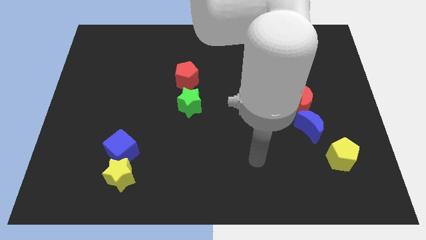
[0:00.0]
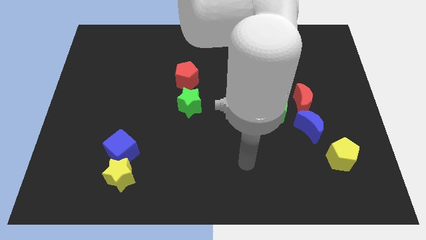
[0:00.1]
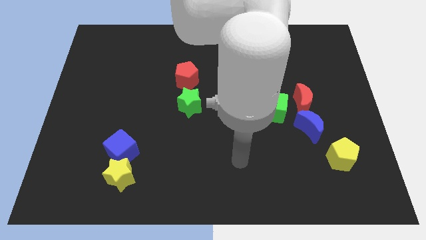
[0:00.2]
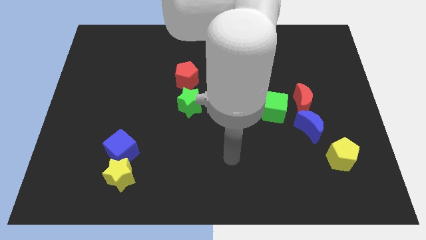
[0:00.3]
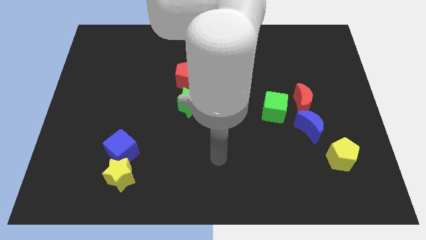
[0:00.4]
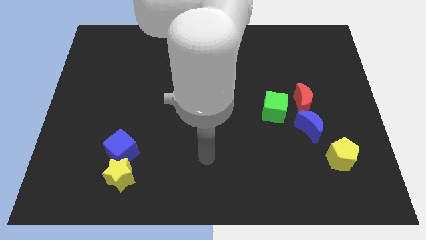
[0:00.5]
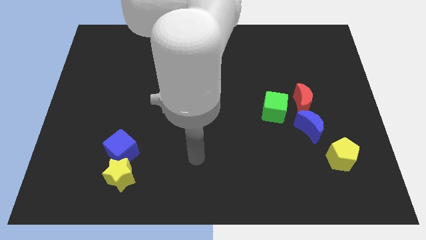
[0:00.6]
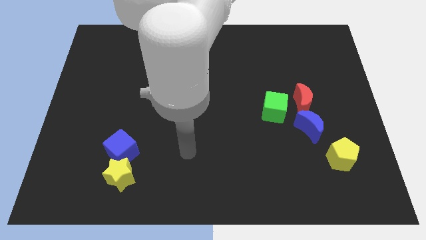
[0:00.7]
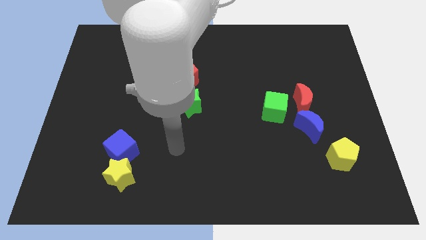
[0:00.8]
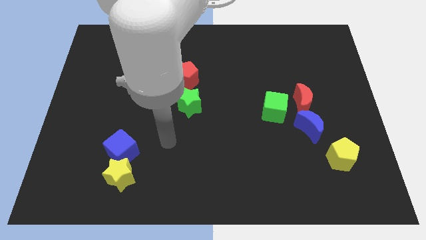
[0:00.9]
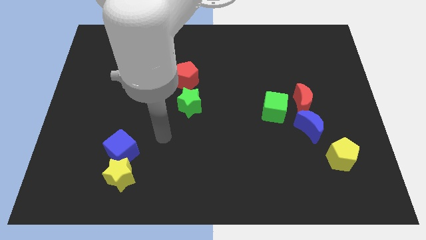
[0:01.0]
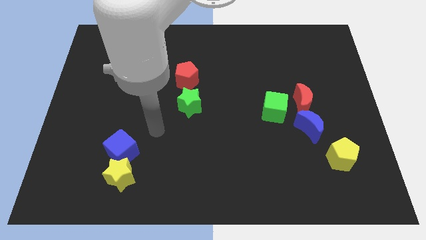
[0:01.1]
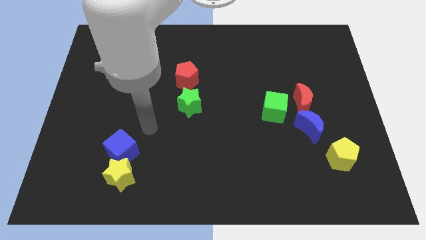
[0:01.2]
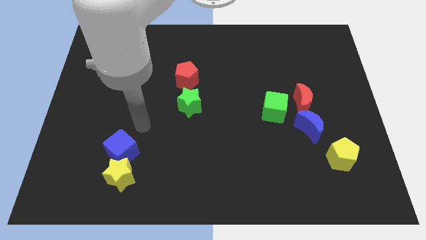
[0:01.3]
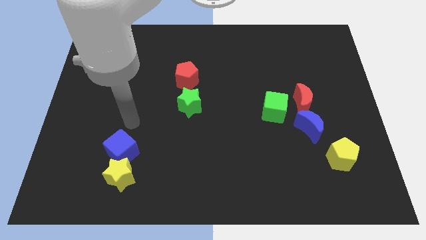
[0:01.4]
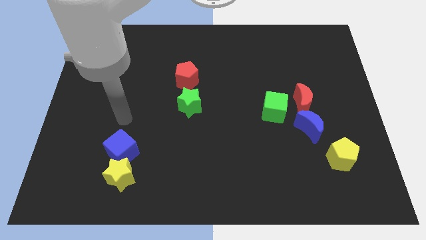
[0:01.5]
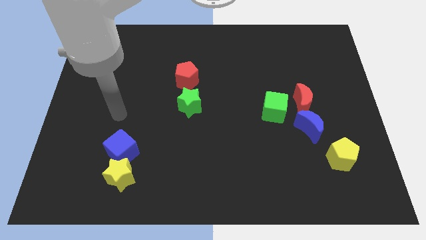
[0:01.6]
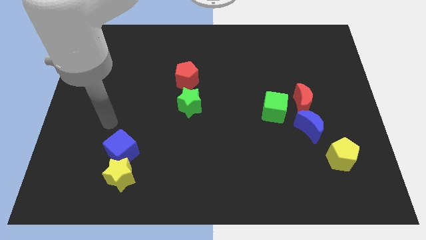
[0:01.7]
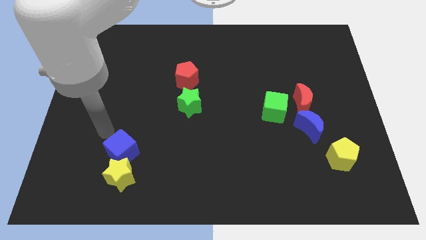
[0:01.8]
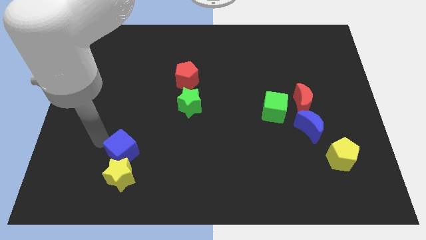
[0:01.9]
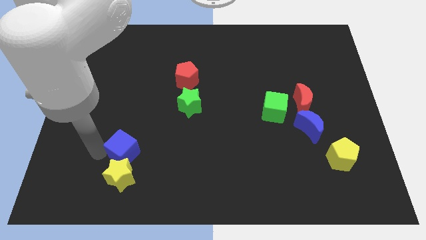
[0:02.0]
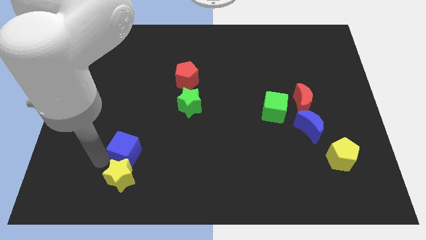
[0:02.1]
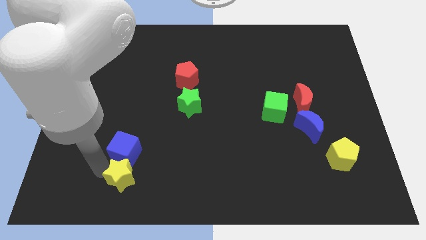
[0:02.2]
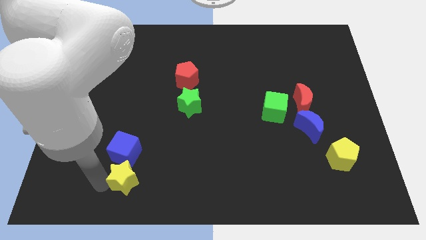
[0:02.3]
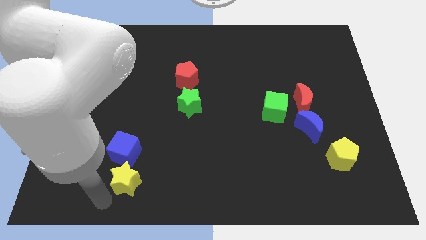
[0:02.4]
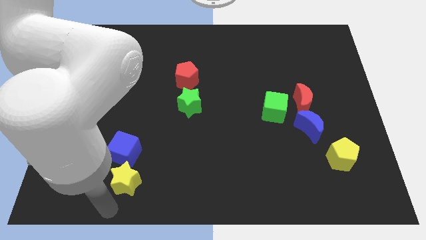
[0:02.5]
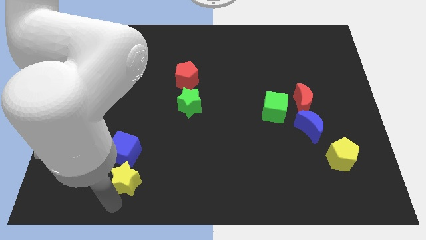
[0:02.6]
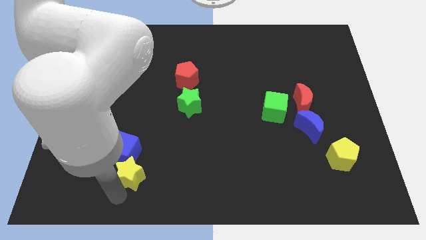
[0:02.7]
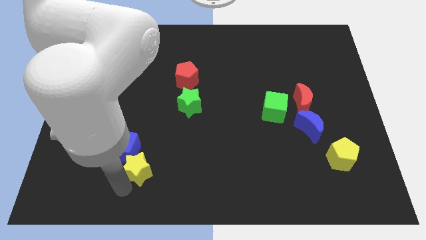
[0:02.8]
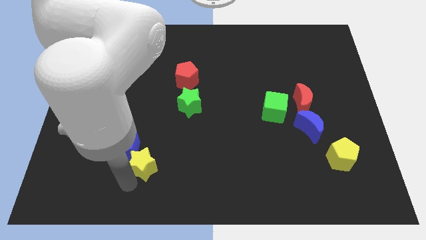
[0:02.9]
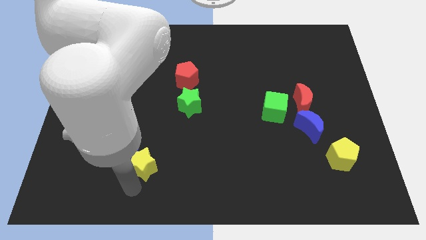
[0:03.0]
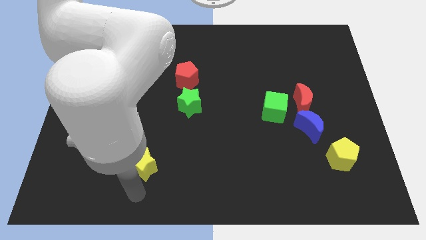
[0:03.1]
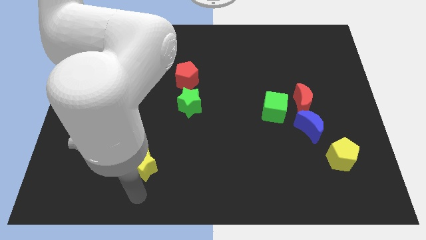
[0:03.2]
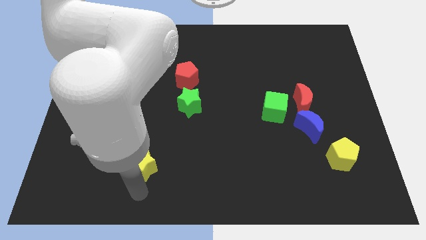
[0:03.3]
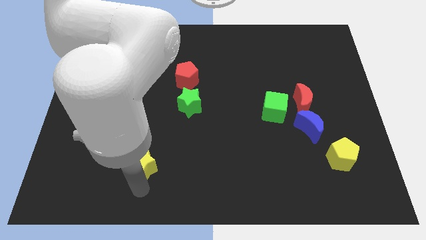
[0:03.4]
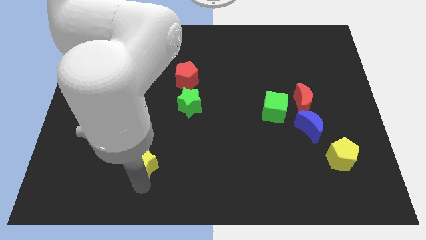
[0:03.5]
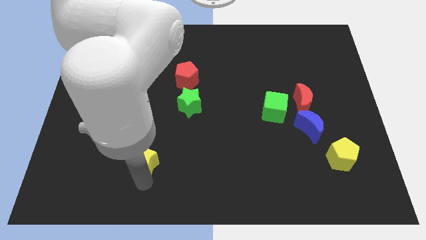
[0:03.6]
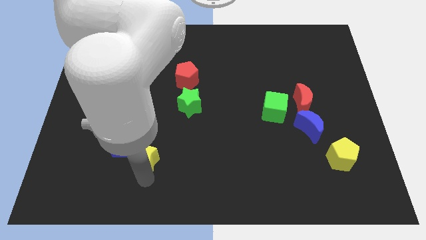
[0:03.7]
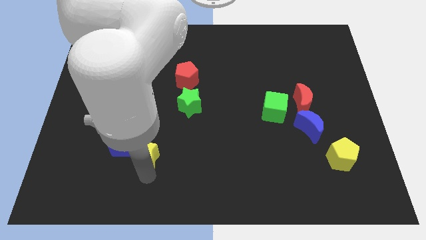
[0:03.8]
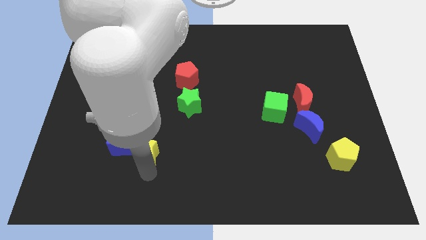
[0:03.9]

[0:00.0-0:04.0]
slide the yellow star a little bit upwards and then right

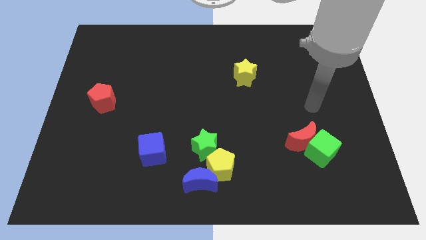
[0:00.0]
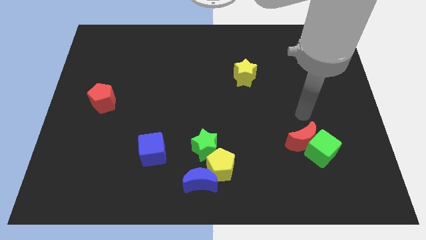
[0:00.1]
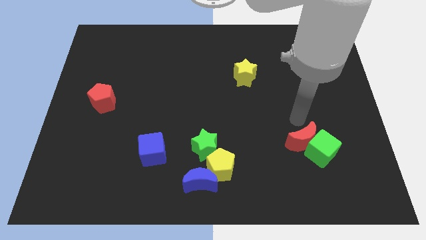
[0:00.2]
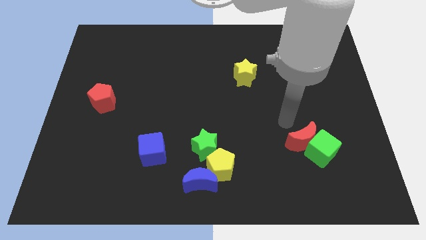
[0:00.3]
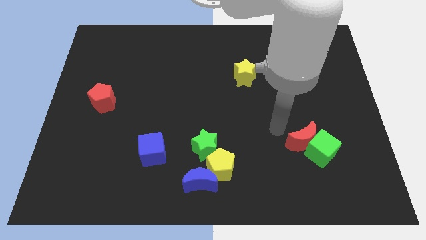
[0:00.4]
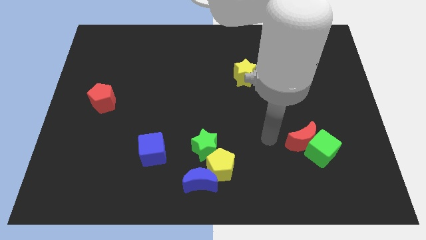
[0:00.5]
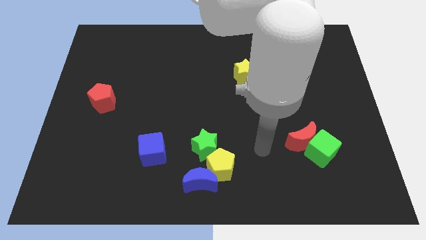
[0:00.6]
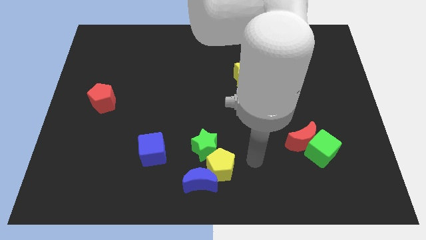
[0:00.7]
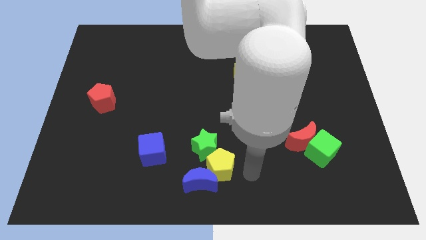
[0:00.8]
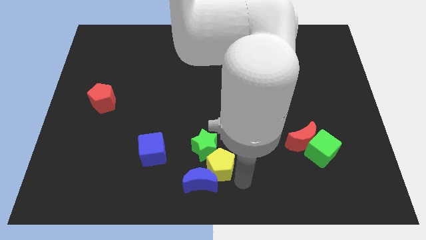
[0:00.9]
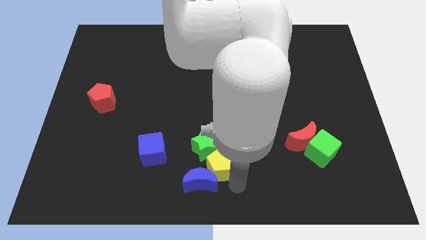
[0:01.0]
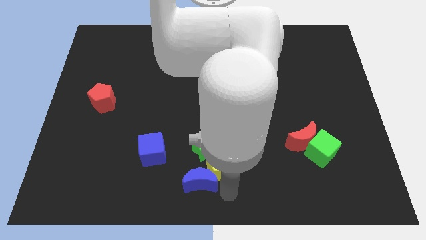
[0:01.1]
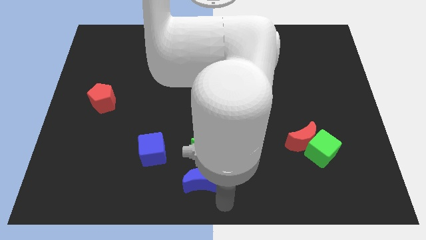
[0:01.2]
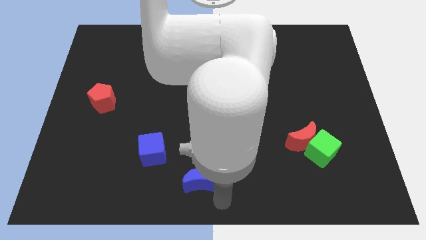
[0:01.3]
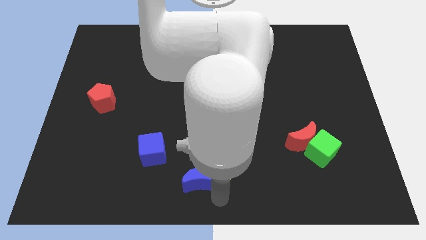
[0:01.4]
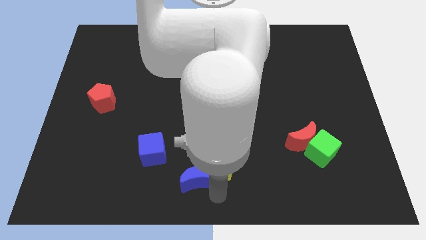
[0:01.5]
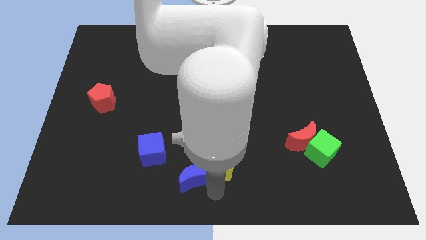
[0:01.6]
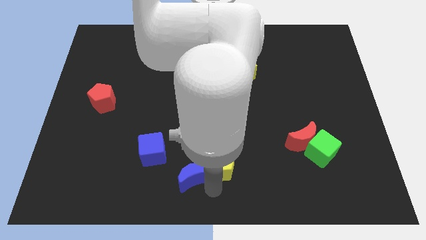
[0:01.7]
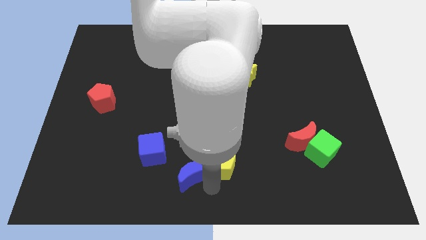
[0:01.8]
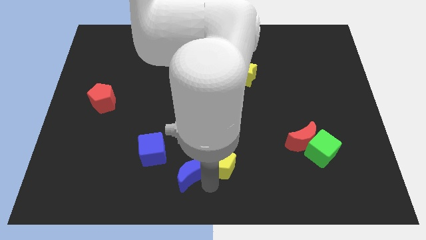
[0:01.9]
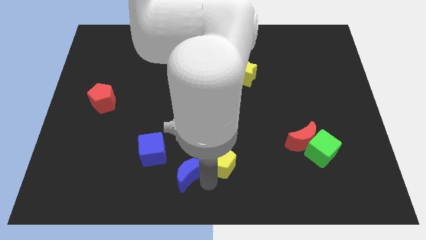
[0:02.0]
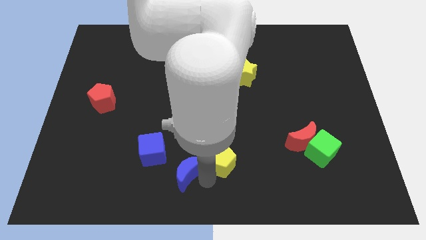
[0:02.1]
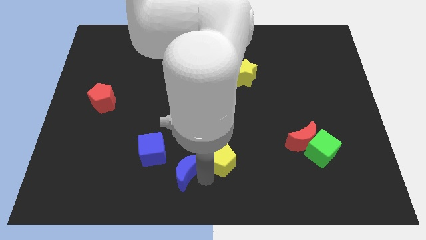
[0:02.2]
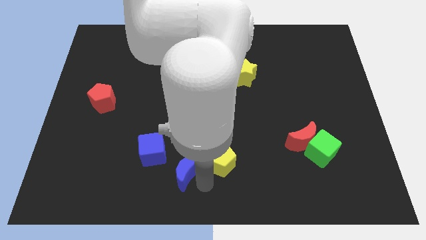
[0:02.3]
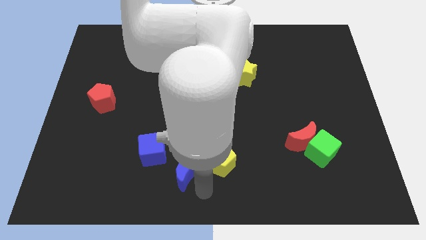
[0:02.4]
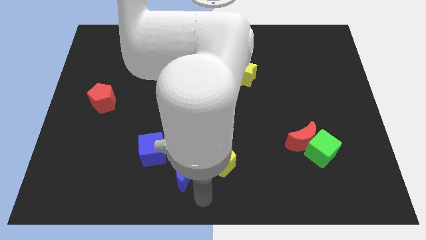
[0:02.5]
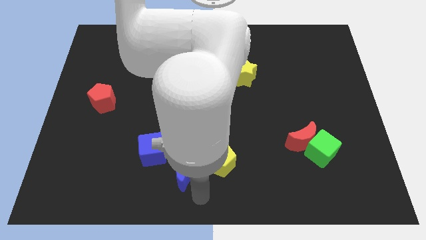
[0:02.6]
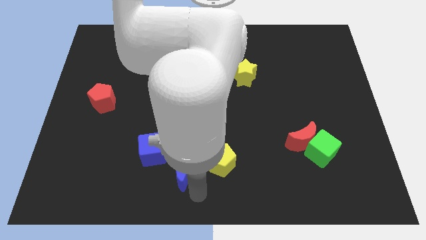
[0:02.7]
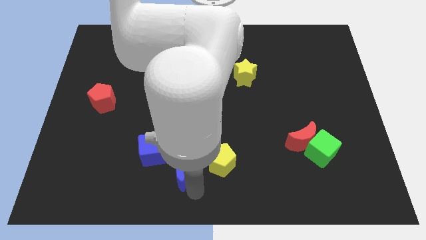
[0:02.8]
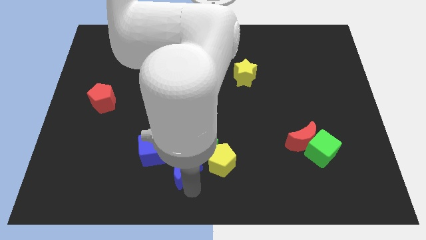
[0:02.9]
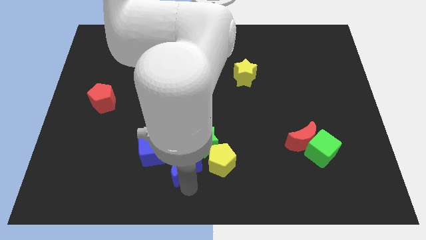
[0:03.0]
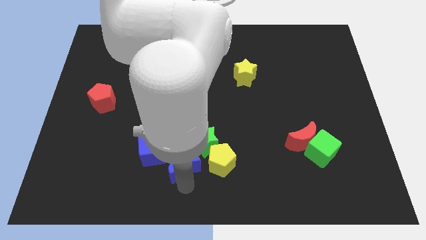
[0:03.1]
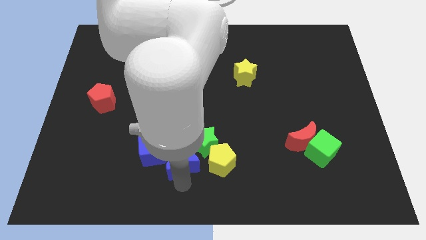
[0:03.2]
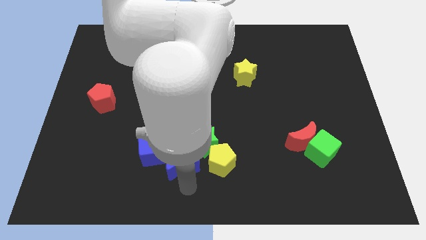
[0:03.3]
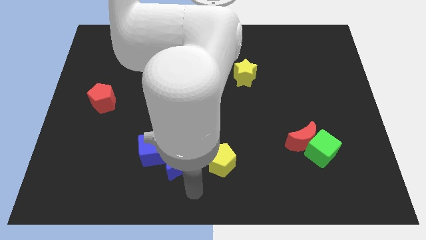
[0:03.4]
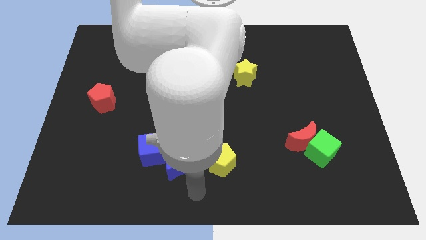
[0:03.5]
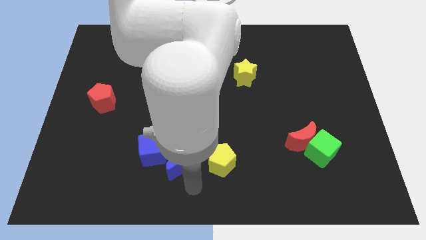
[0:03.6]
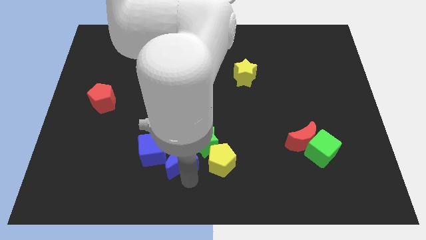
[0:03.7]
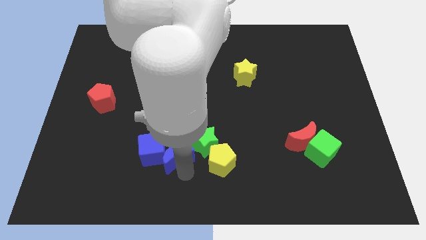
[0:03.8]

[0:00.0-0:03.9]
slightly slide the blue moon up and to the left

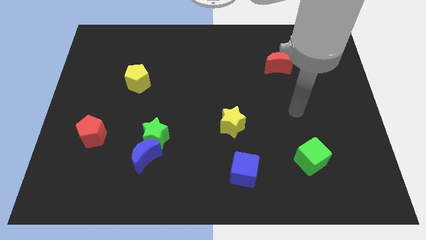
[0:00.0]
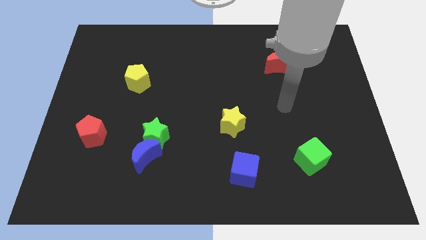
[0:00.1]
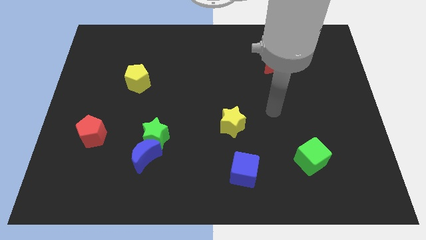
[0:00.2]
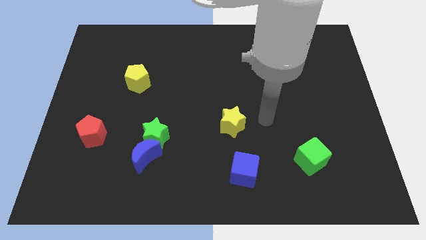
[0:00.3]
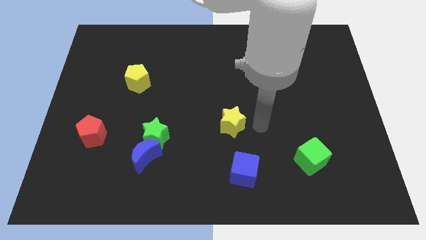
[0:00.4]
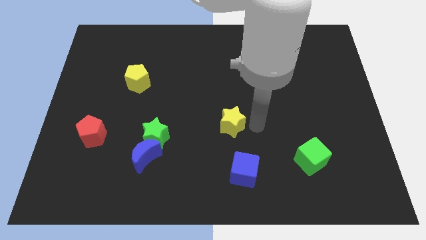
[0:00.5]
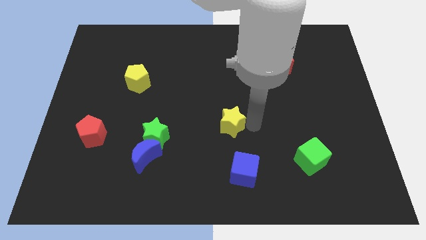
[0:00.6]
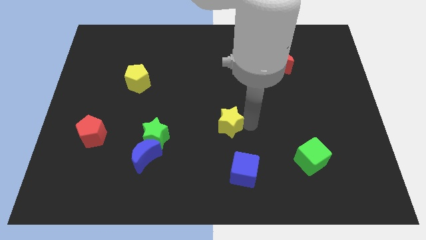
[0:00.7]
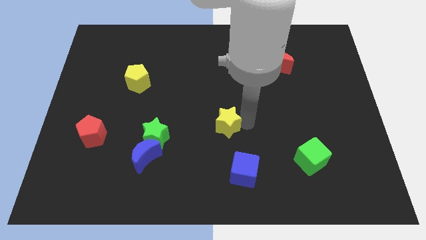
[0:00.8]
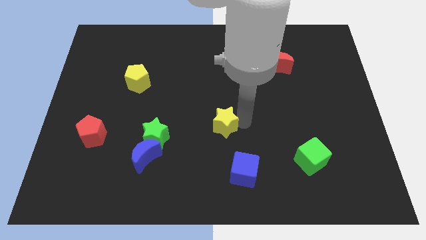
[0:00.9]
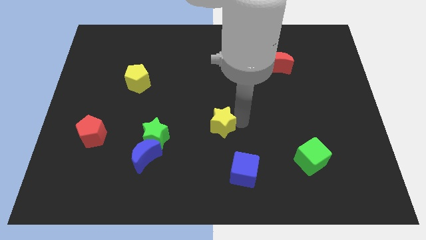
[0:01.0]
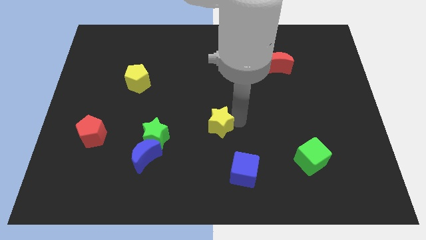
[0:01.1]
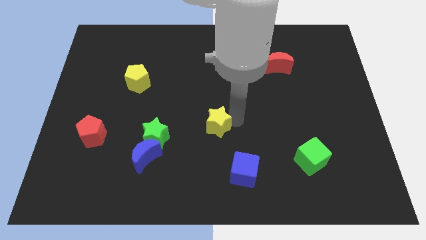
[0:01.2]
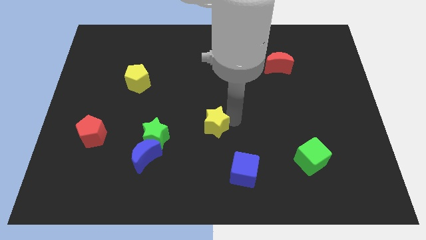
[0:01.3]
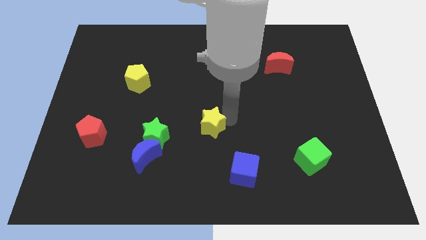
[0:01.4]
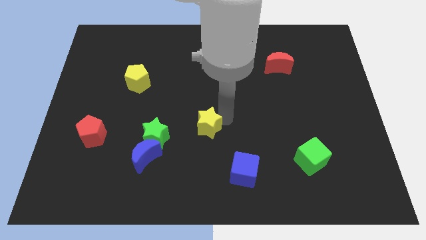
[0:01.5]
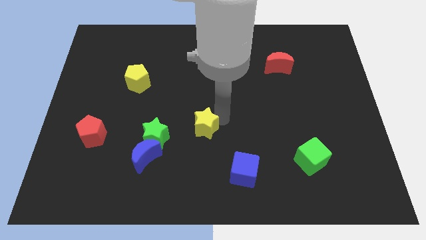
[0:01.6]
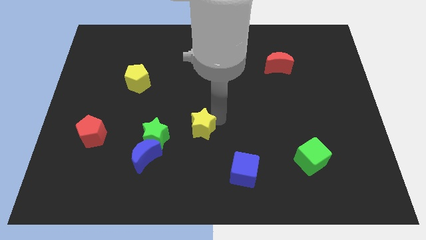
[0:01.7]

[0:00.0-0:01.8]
push the yellow star slightly to the left
